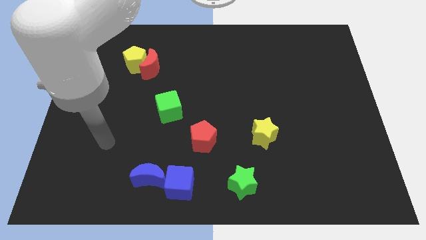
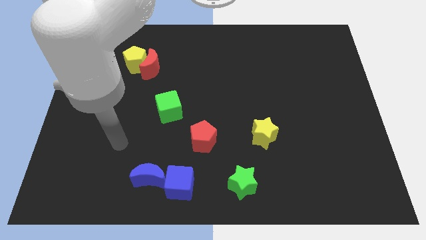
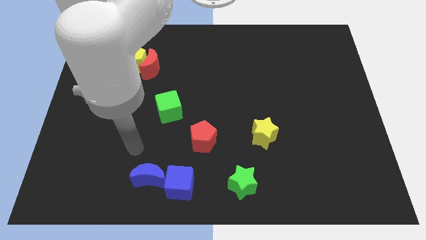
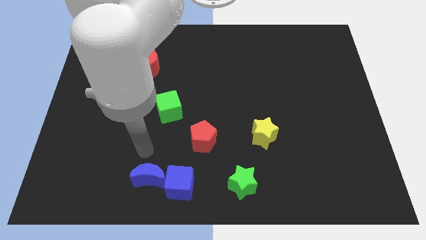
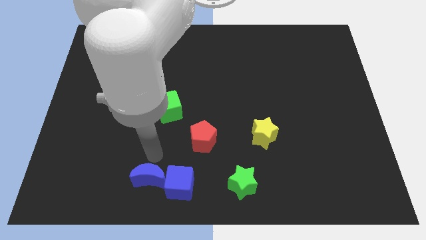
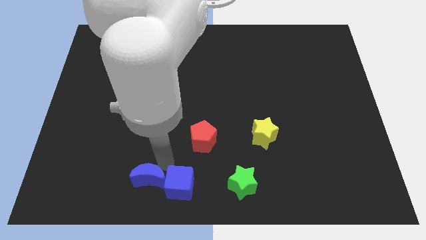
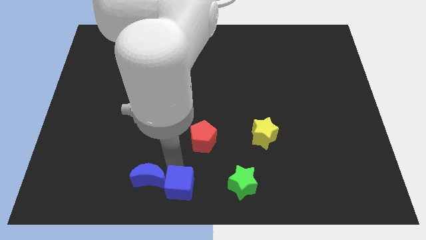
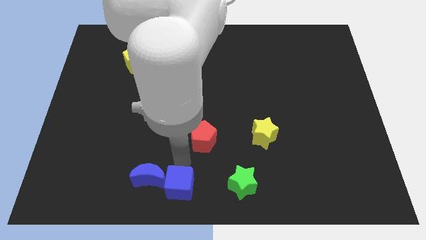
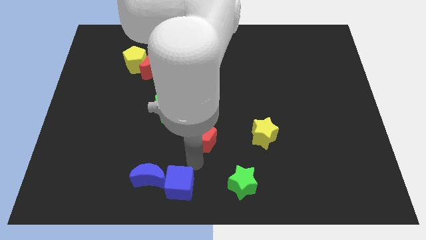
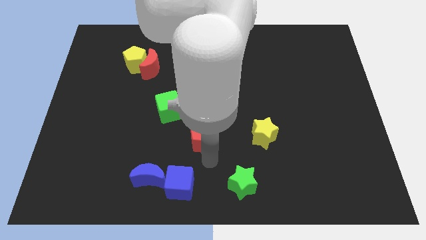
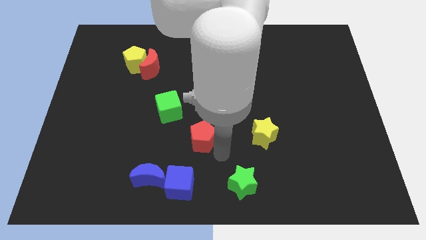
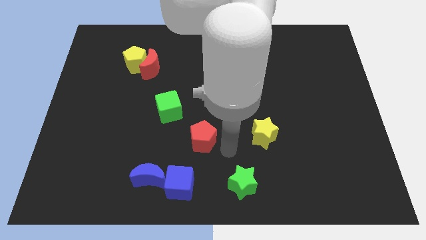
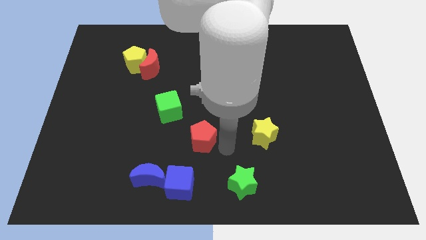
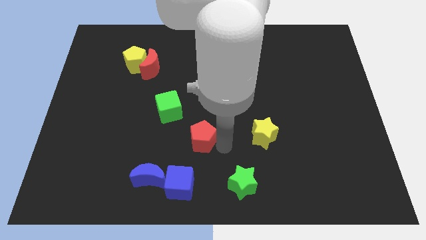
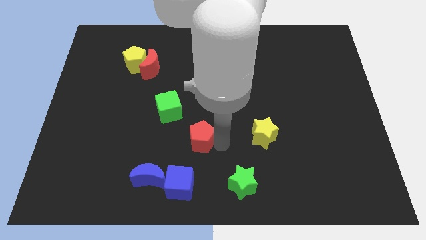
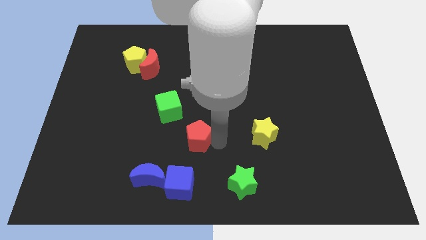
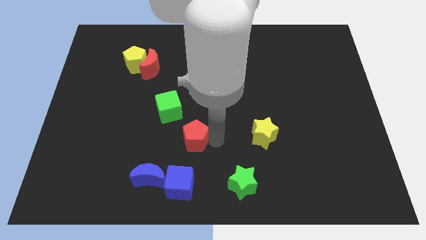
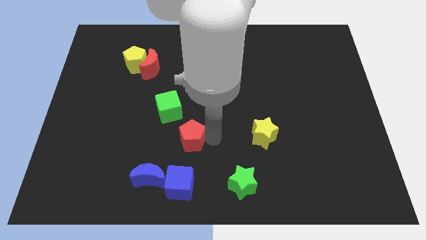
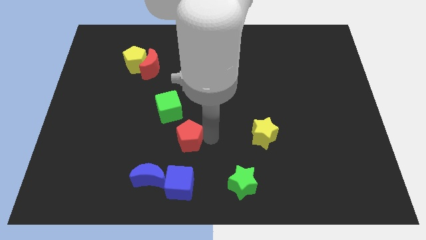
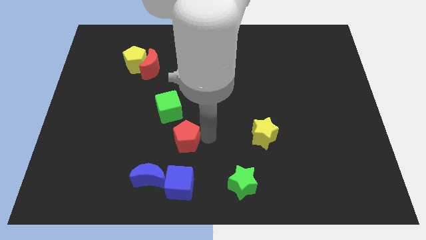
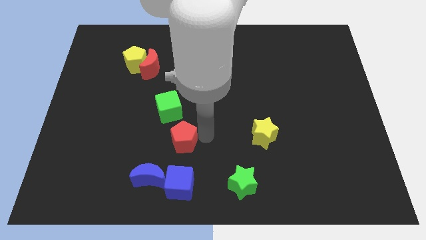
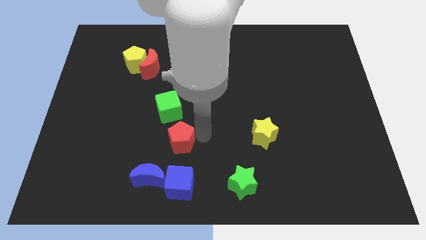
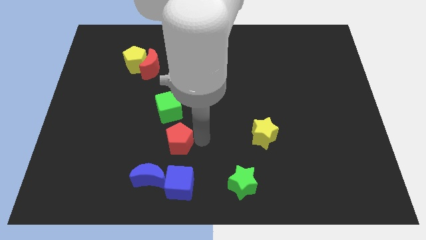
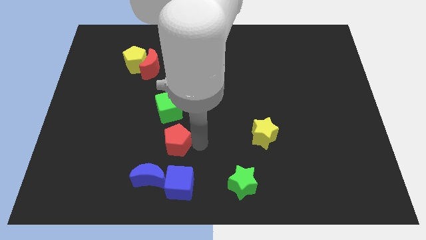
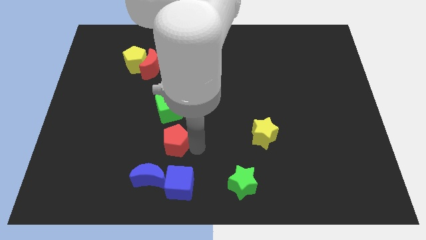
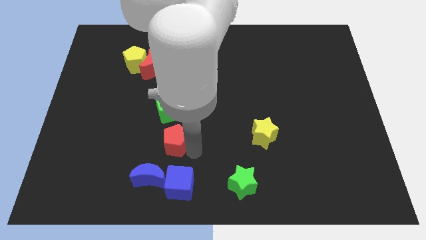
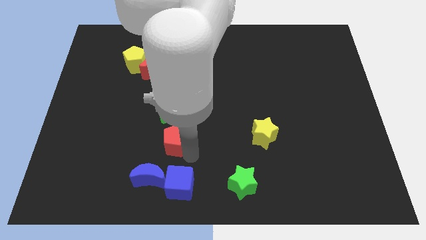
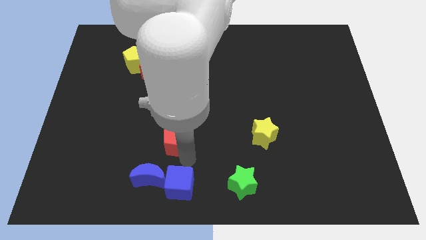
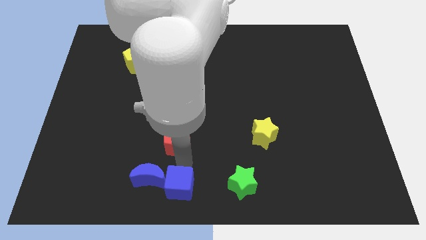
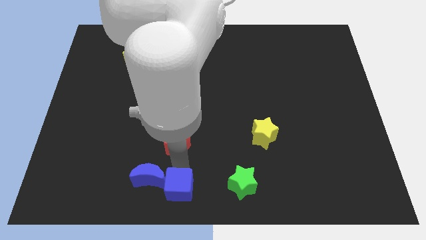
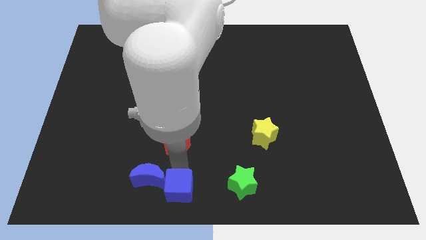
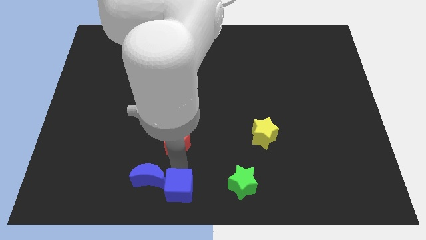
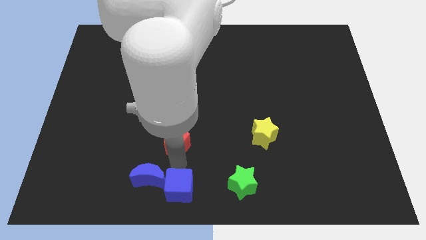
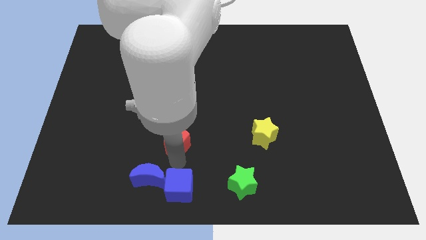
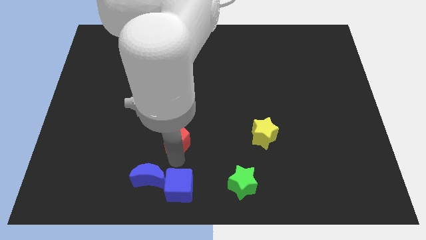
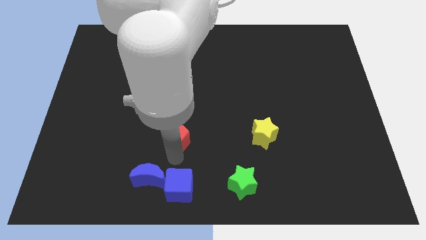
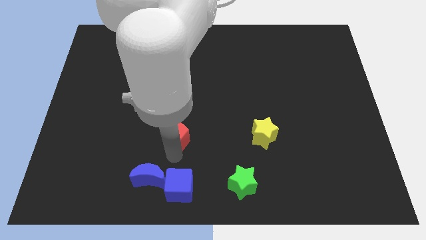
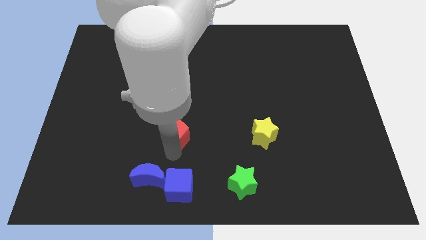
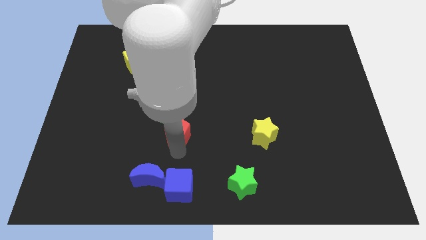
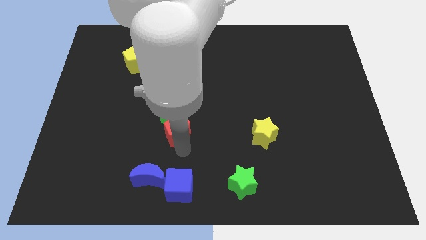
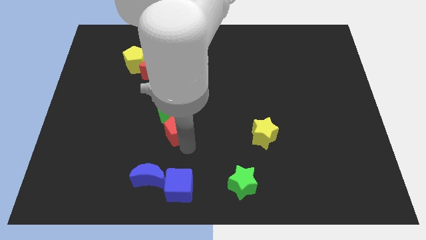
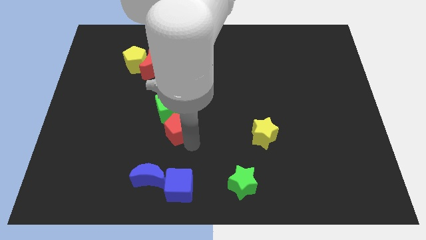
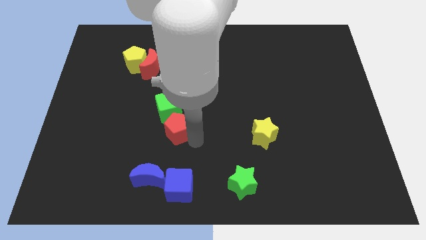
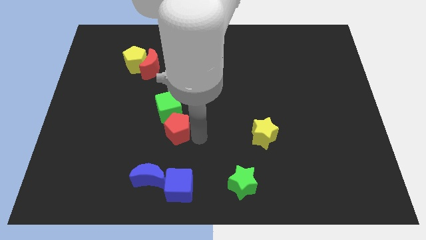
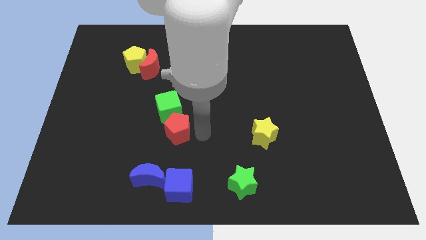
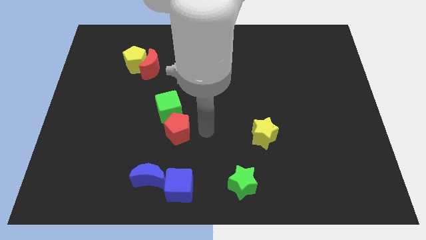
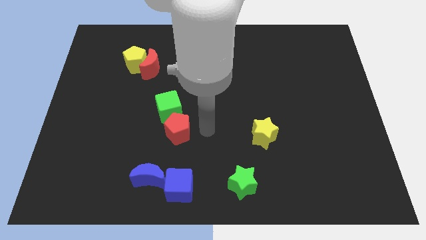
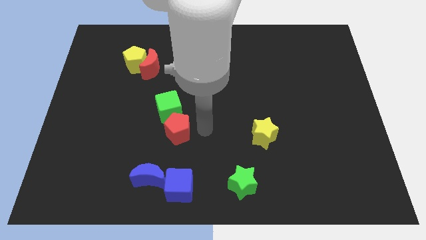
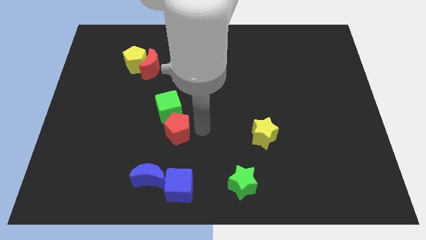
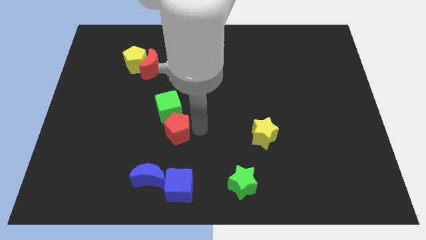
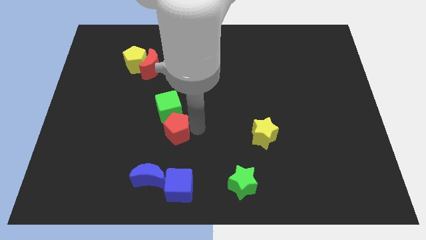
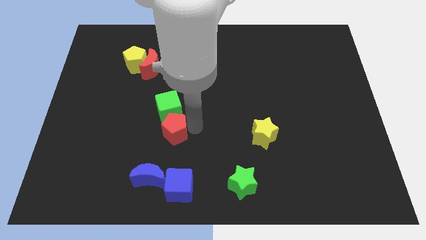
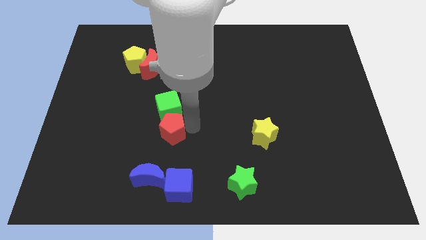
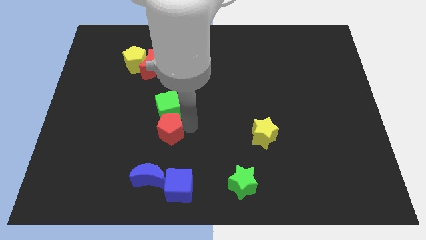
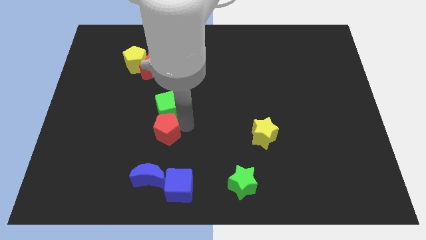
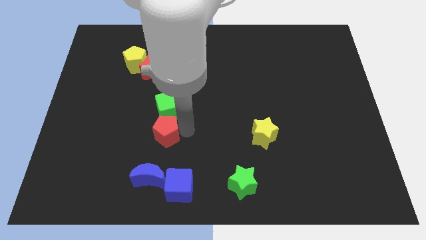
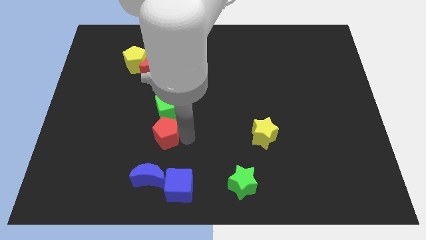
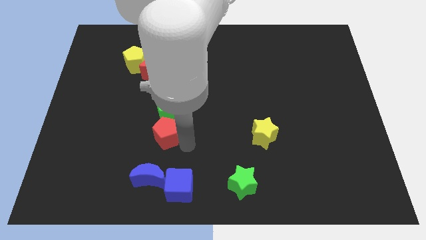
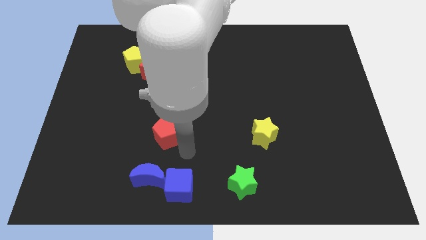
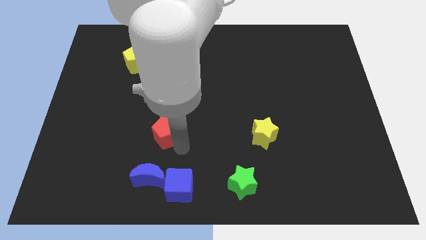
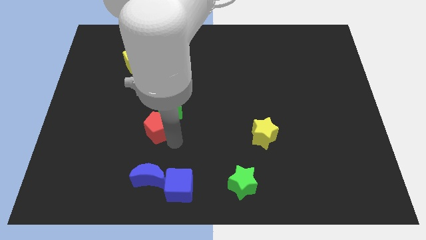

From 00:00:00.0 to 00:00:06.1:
slightly slide the red pentagon up and to the left diagonally

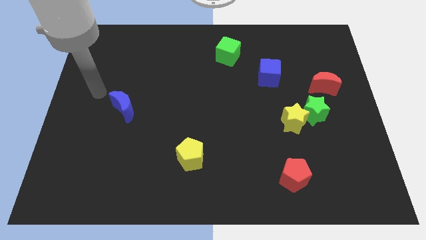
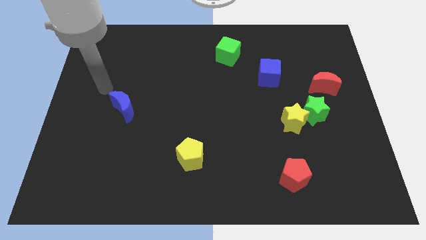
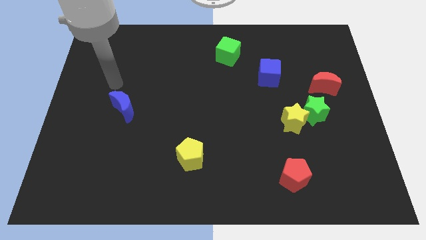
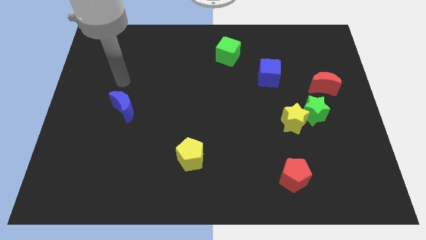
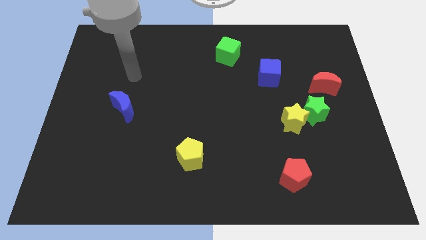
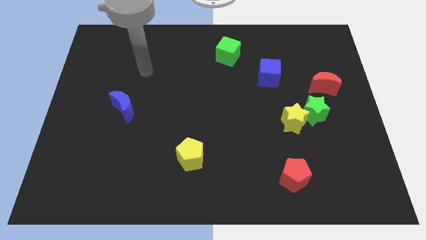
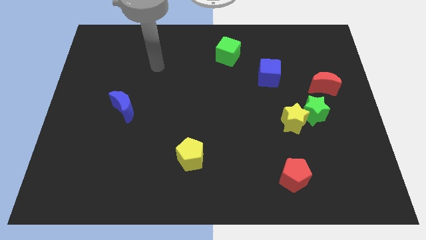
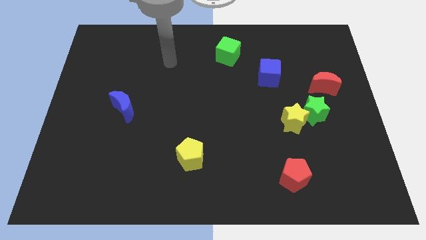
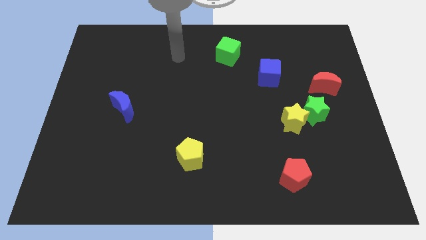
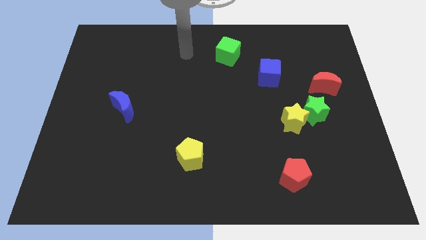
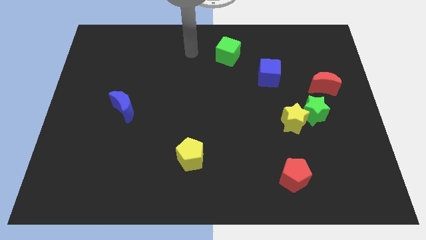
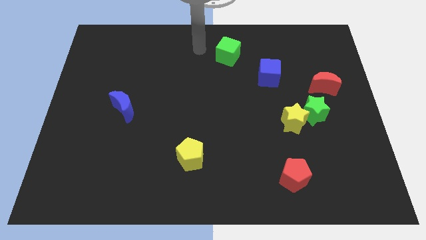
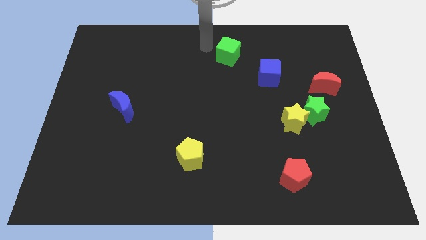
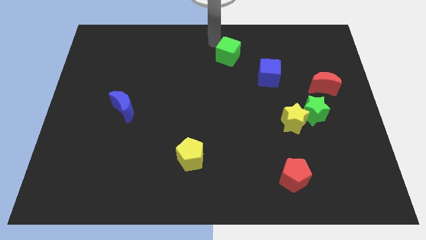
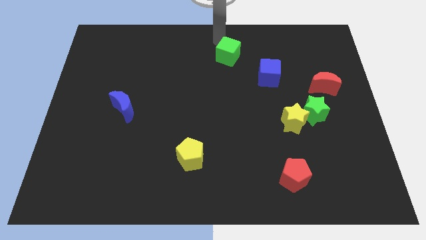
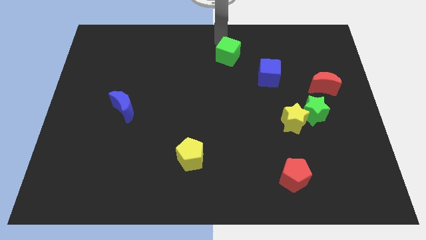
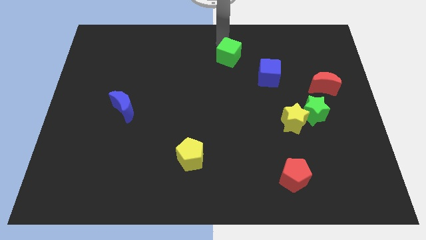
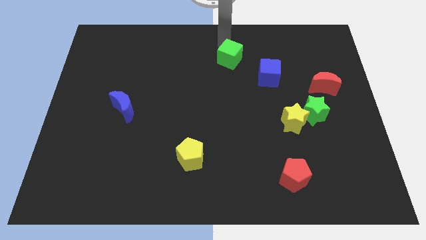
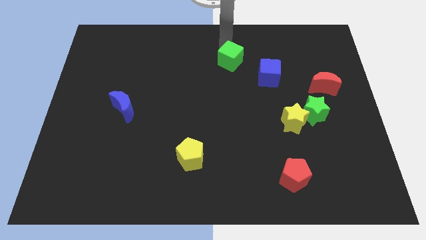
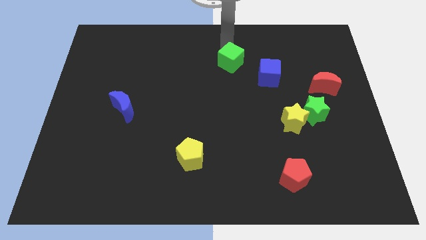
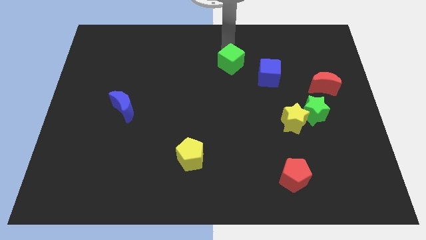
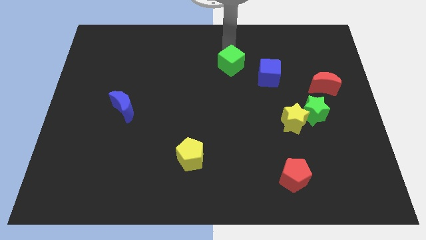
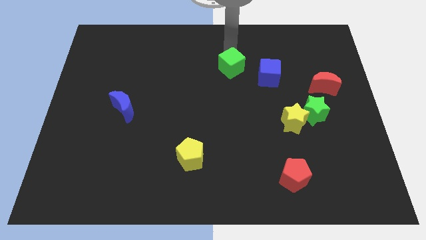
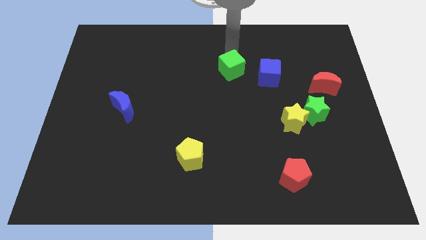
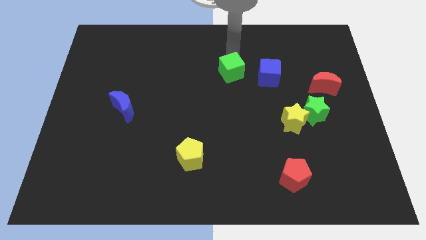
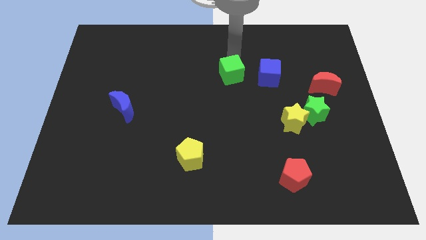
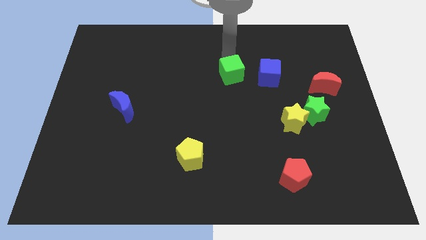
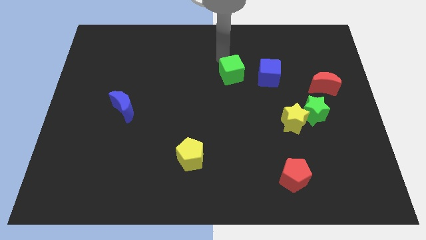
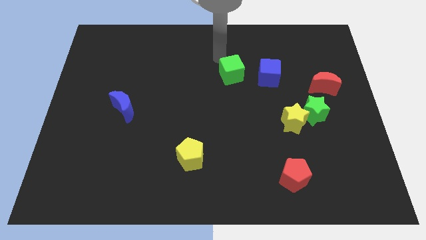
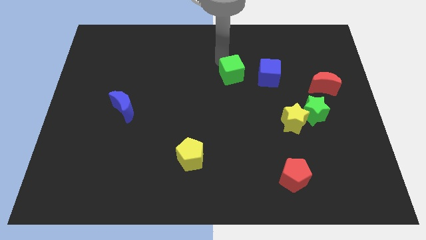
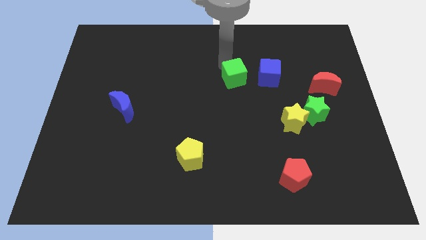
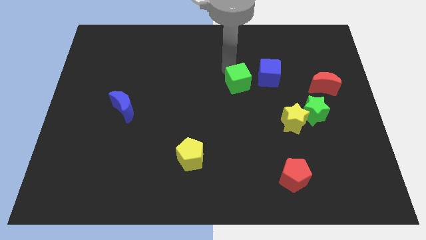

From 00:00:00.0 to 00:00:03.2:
slightly push the green cube diagonally downwards and right
